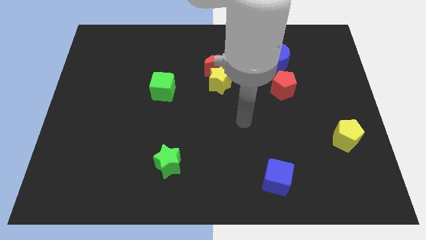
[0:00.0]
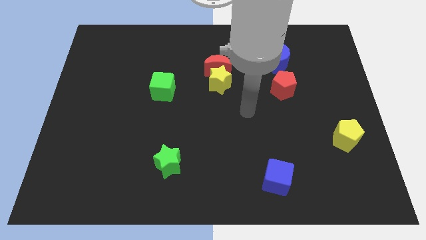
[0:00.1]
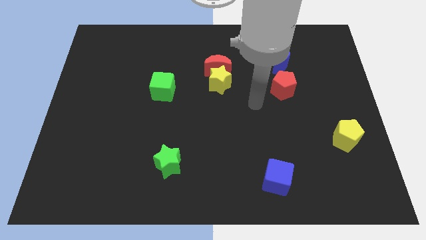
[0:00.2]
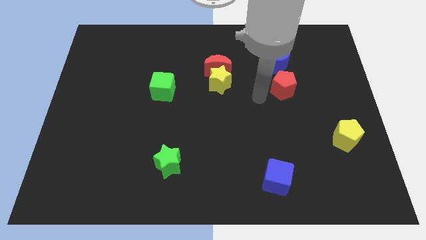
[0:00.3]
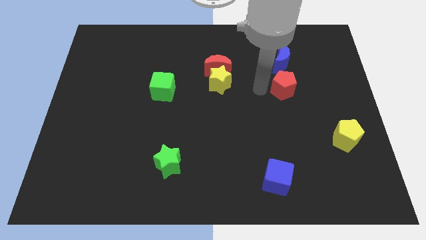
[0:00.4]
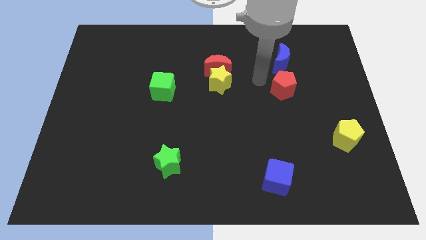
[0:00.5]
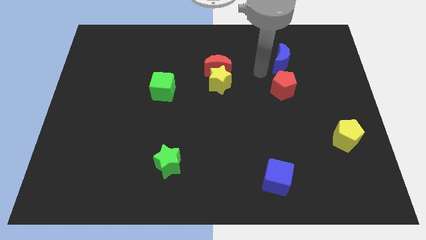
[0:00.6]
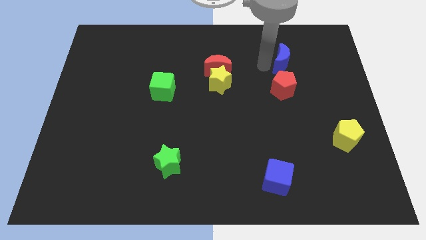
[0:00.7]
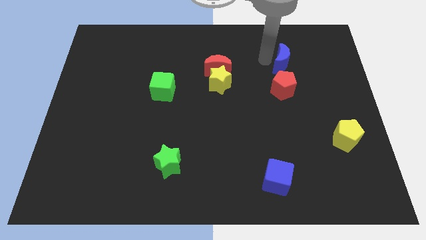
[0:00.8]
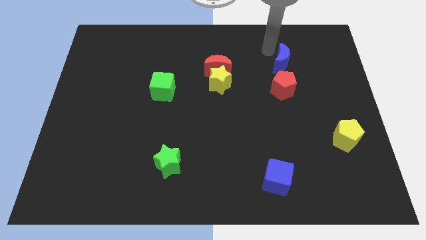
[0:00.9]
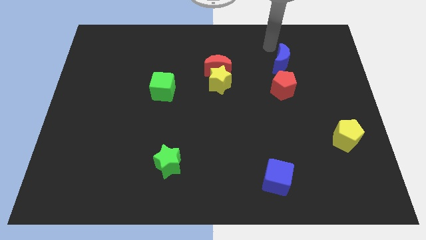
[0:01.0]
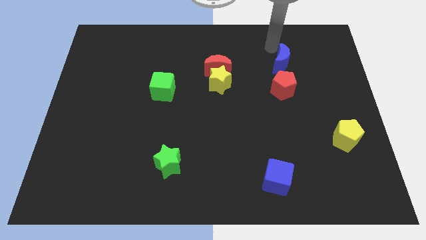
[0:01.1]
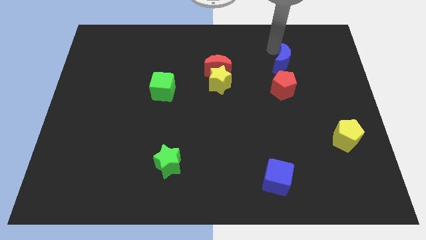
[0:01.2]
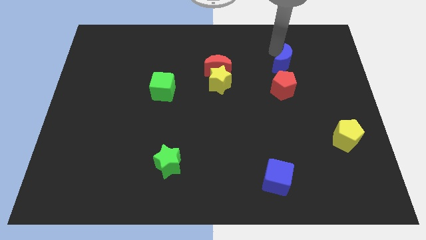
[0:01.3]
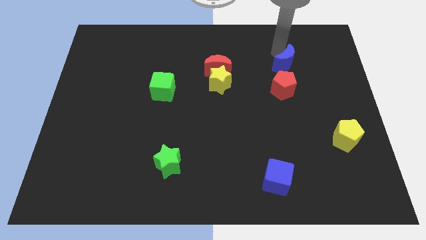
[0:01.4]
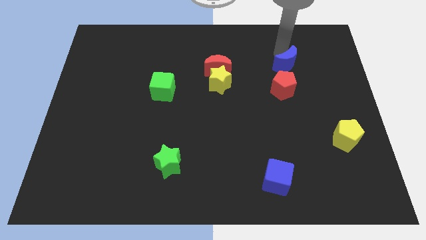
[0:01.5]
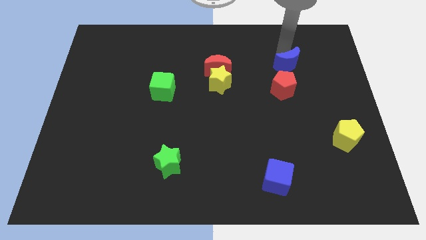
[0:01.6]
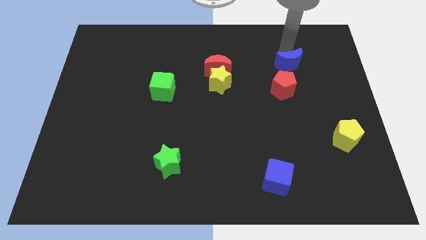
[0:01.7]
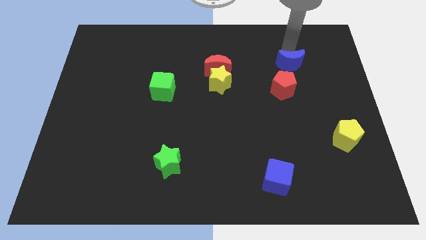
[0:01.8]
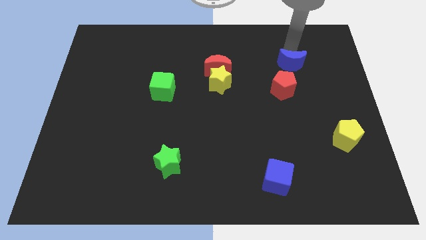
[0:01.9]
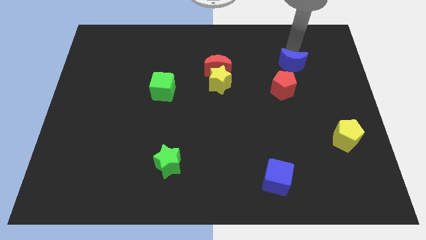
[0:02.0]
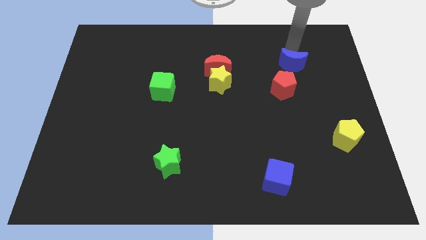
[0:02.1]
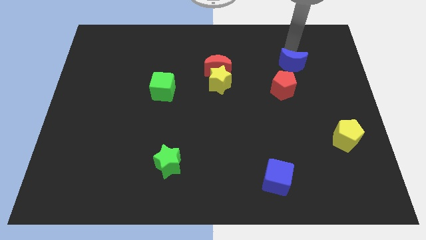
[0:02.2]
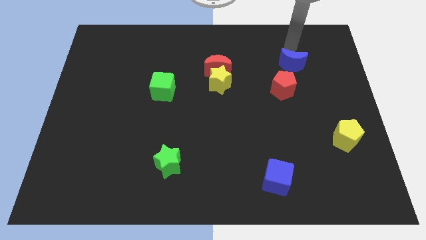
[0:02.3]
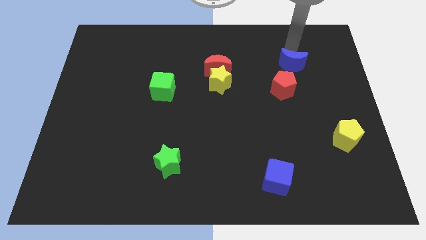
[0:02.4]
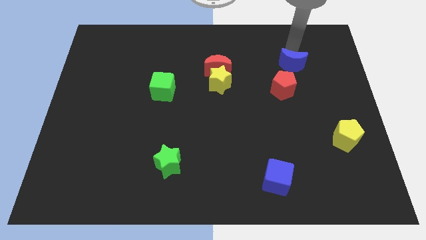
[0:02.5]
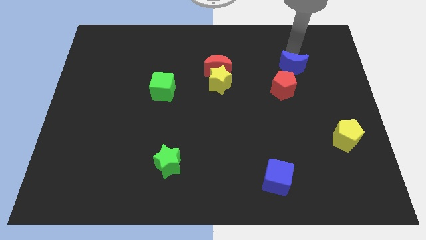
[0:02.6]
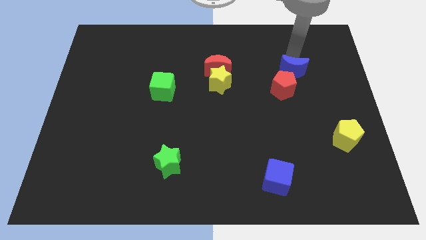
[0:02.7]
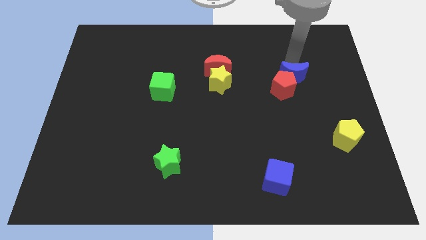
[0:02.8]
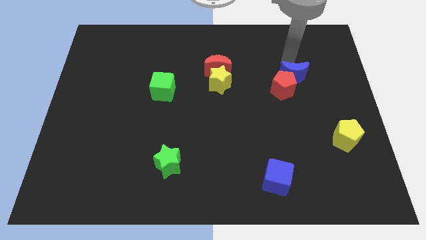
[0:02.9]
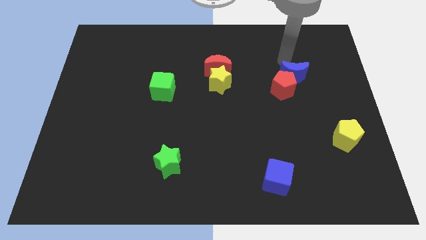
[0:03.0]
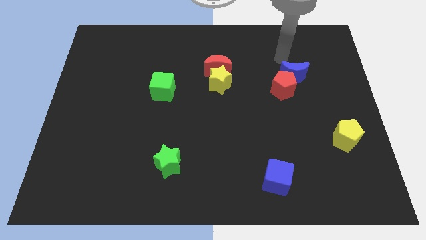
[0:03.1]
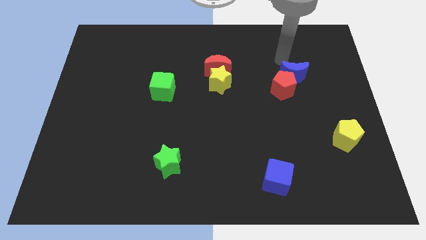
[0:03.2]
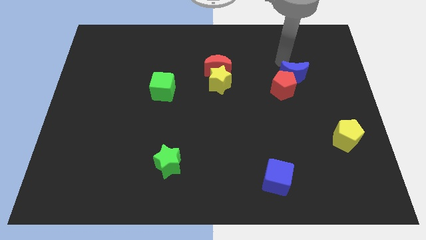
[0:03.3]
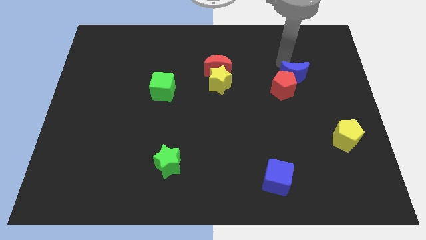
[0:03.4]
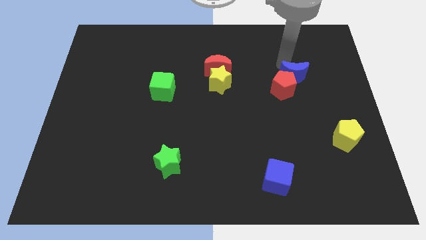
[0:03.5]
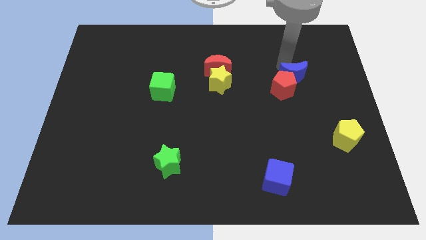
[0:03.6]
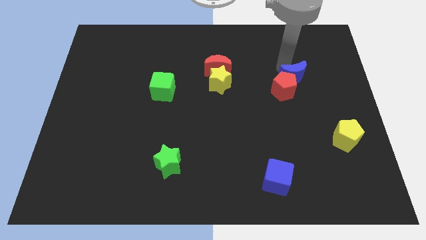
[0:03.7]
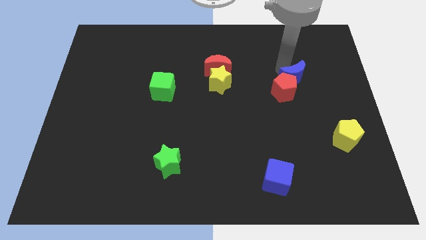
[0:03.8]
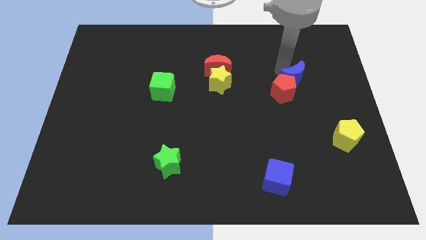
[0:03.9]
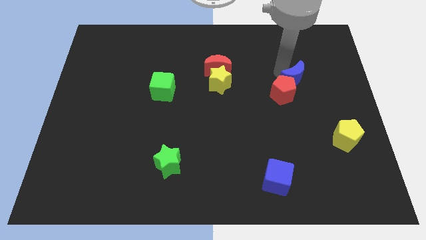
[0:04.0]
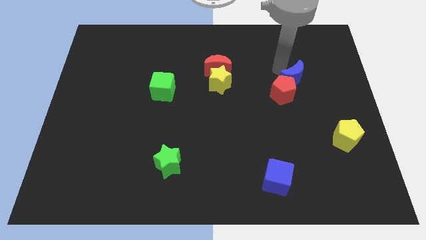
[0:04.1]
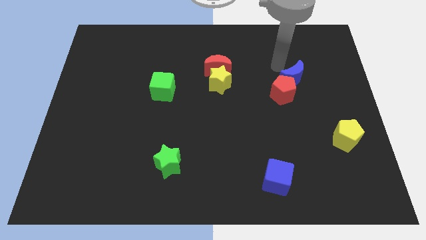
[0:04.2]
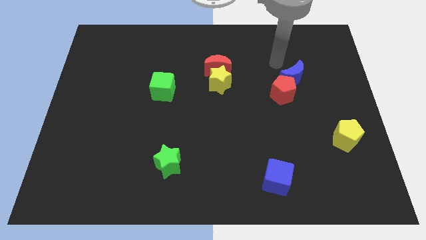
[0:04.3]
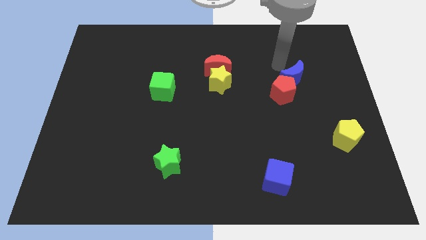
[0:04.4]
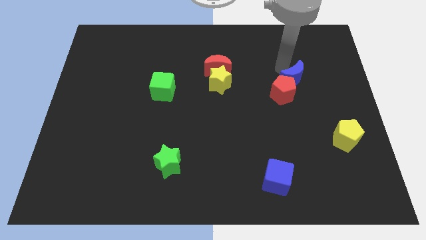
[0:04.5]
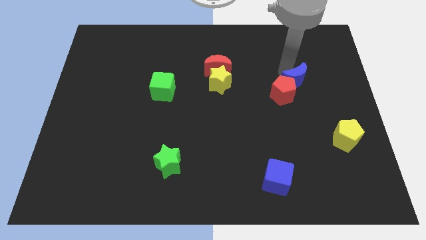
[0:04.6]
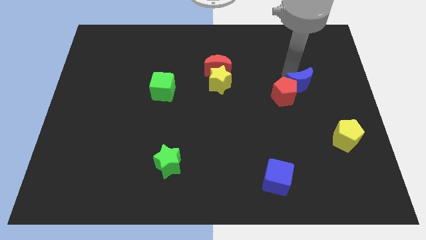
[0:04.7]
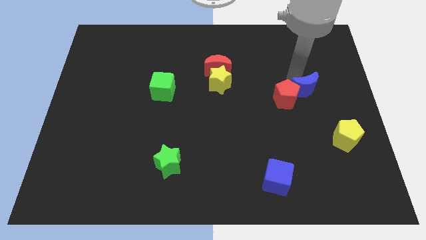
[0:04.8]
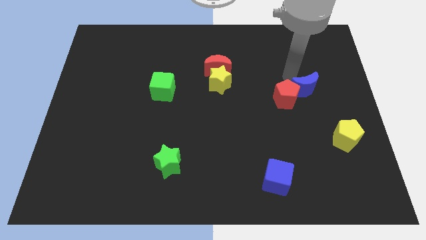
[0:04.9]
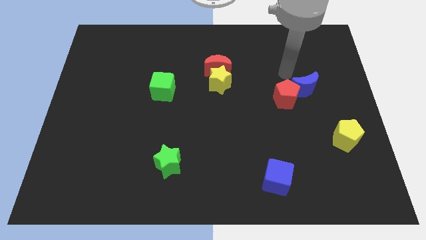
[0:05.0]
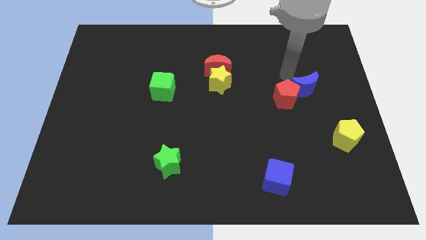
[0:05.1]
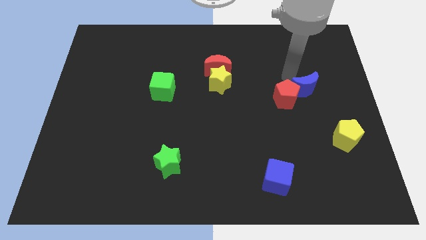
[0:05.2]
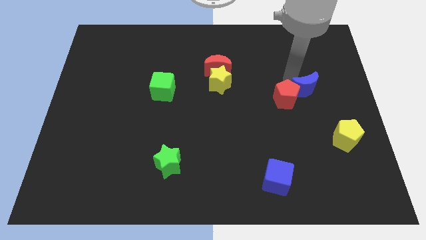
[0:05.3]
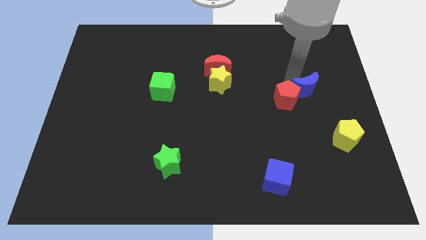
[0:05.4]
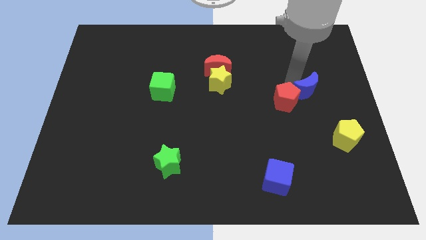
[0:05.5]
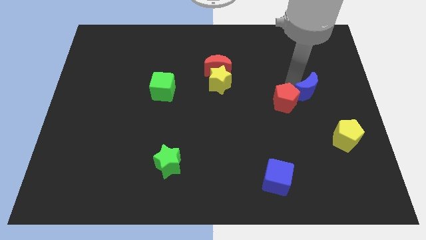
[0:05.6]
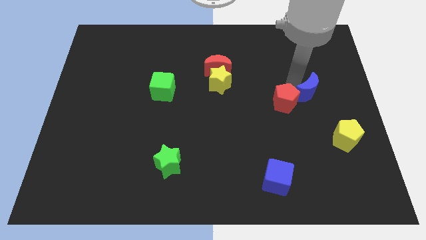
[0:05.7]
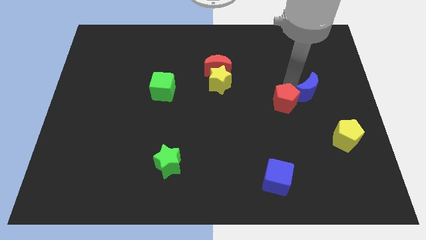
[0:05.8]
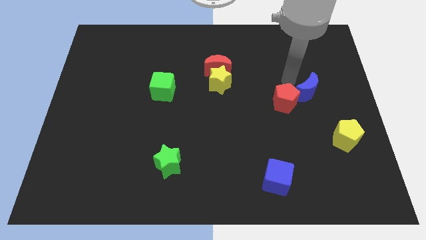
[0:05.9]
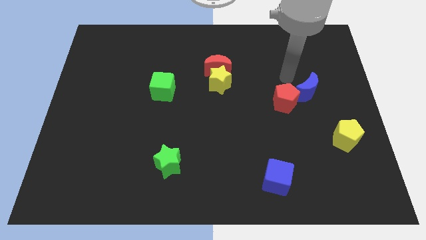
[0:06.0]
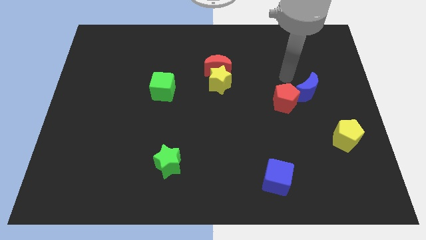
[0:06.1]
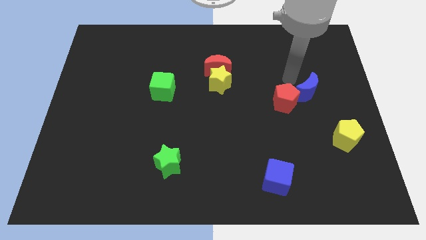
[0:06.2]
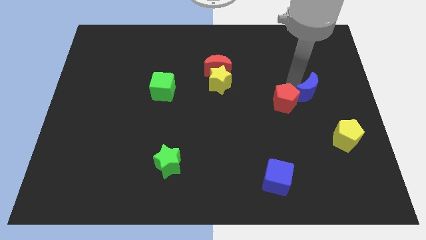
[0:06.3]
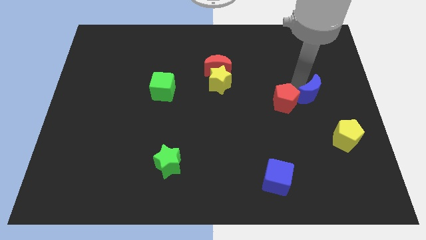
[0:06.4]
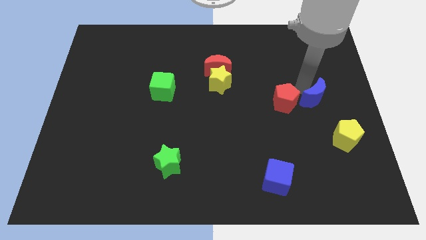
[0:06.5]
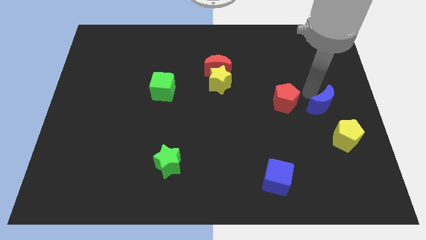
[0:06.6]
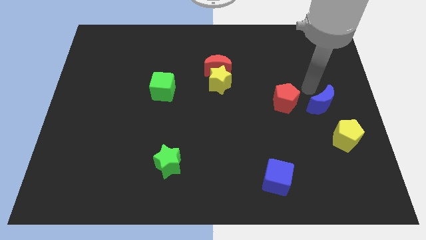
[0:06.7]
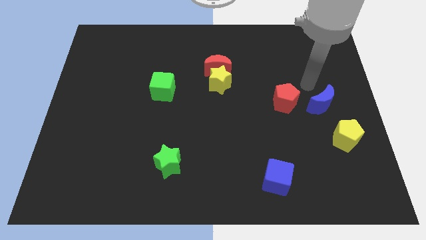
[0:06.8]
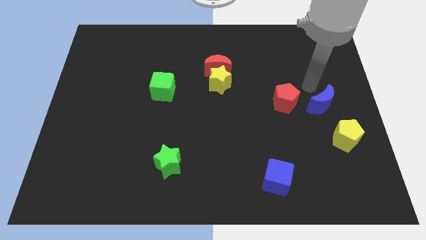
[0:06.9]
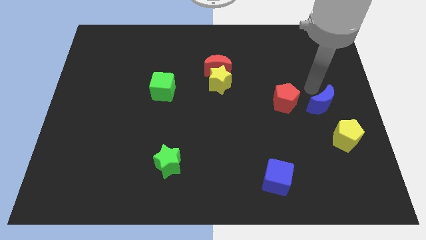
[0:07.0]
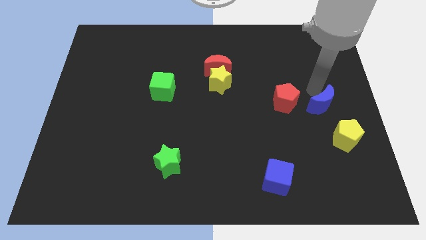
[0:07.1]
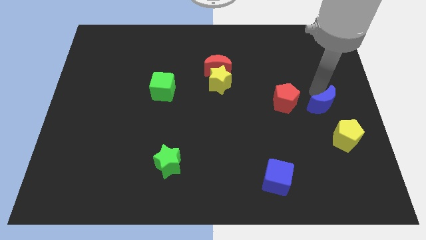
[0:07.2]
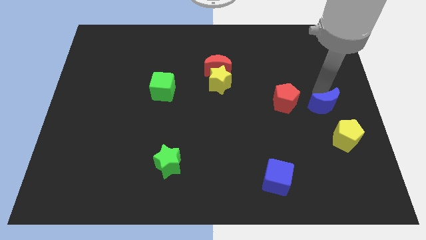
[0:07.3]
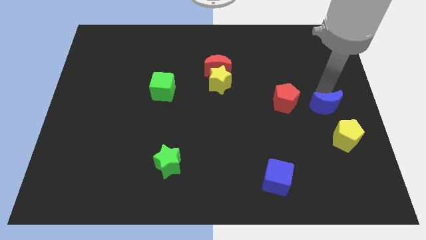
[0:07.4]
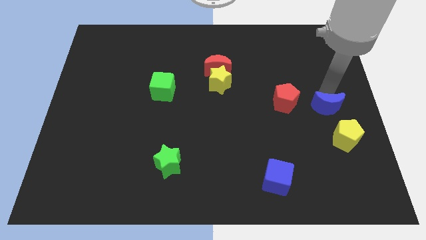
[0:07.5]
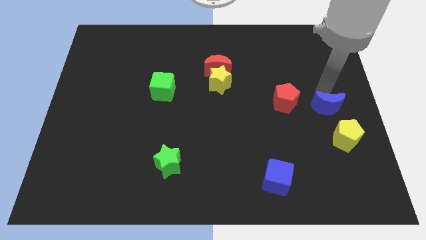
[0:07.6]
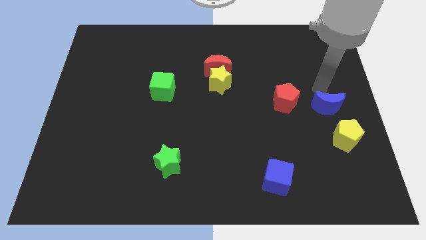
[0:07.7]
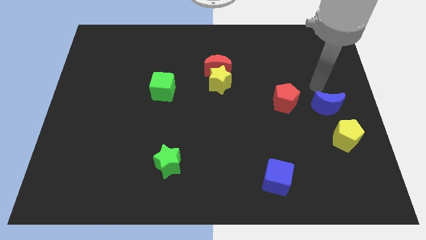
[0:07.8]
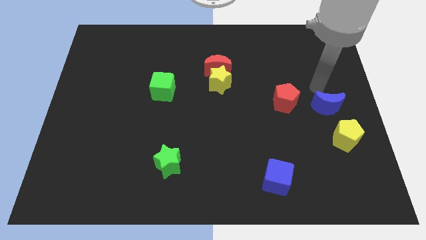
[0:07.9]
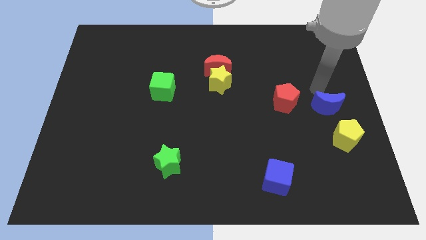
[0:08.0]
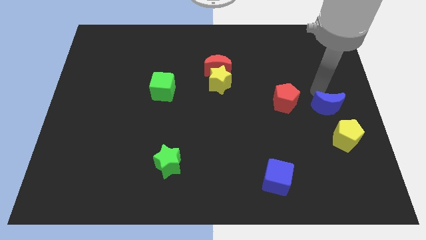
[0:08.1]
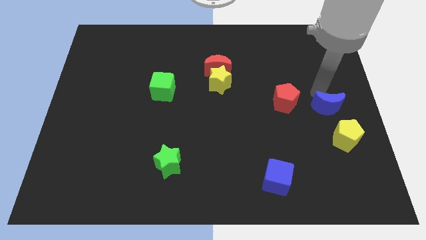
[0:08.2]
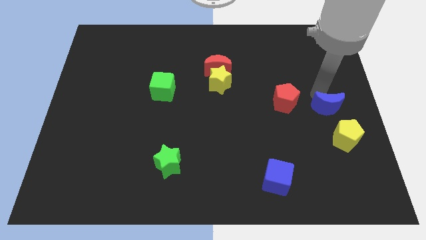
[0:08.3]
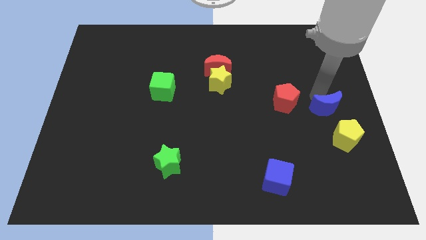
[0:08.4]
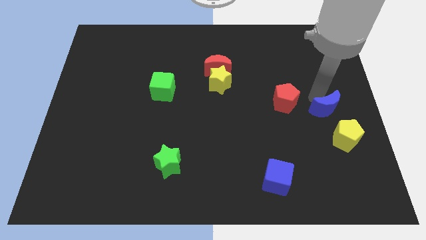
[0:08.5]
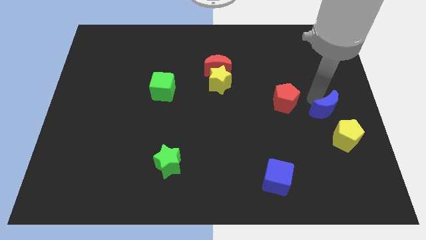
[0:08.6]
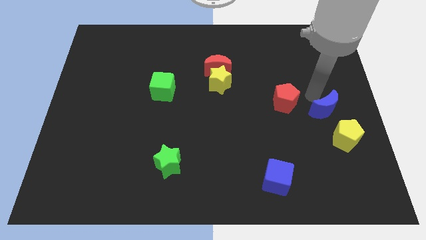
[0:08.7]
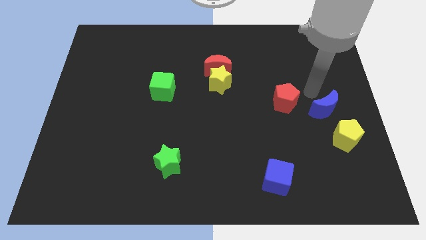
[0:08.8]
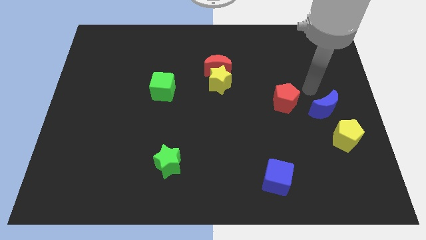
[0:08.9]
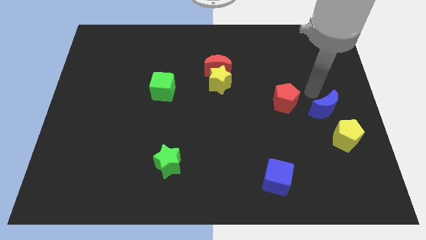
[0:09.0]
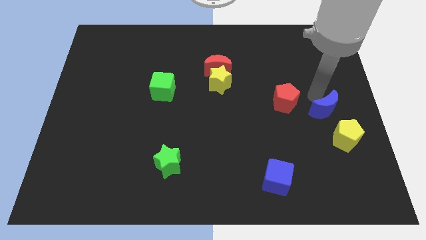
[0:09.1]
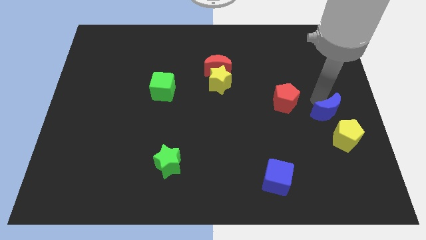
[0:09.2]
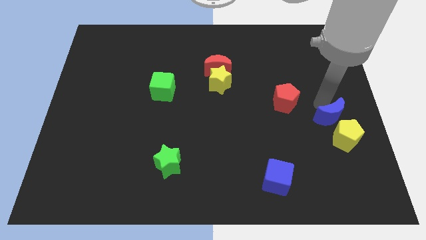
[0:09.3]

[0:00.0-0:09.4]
move the blue moon to the yellow pentagon
